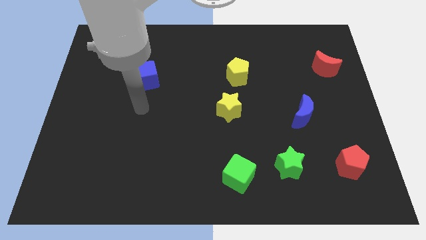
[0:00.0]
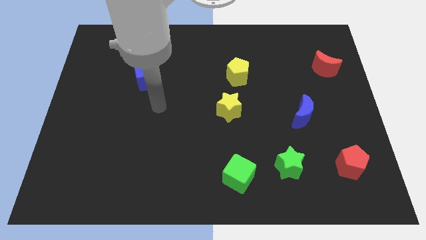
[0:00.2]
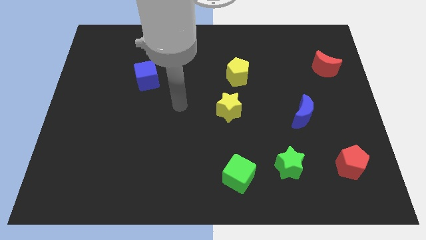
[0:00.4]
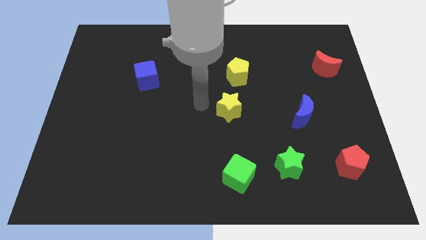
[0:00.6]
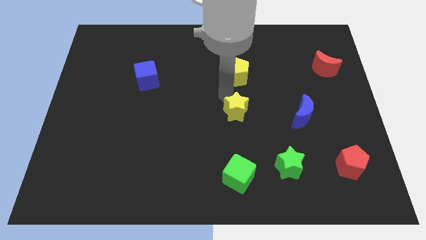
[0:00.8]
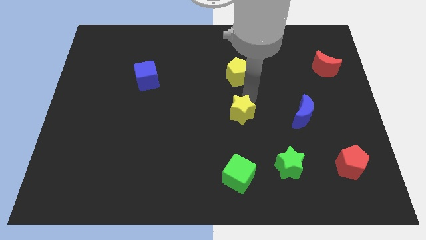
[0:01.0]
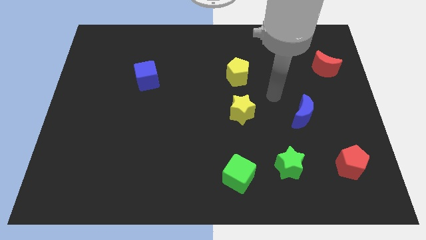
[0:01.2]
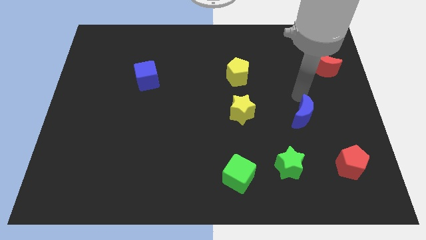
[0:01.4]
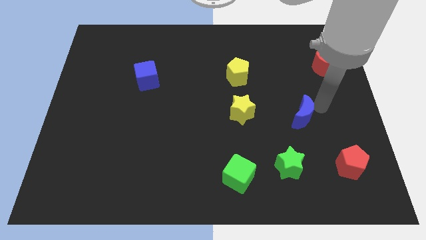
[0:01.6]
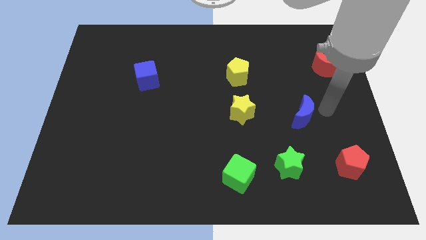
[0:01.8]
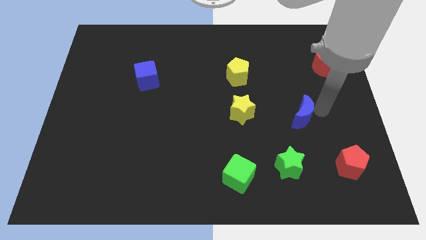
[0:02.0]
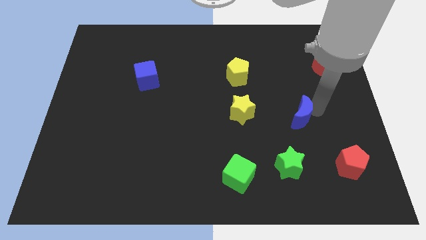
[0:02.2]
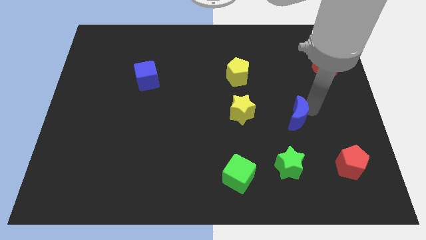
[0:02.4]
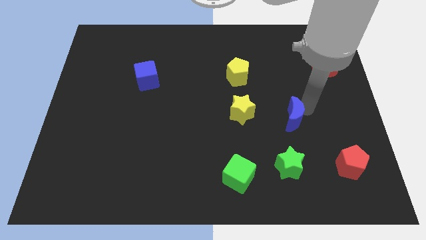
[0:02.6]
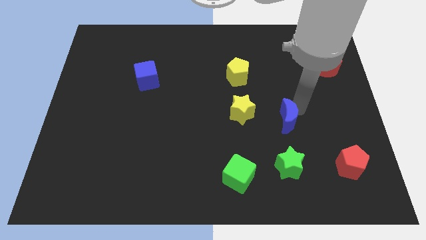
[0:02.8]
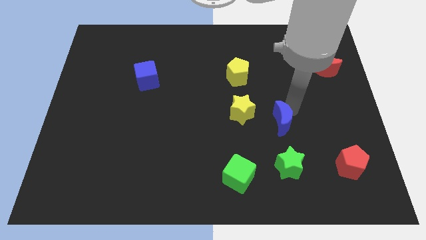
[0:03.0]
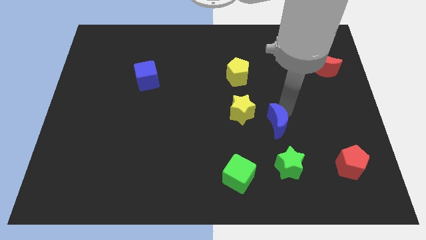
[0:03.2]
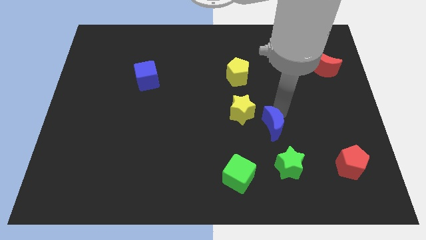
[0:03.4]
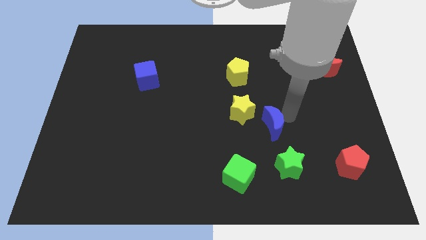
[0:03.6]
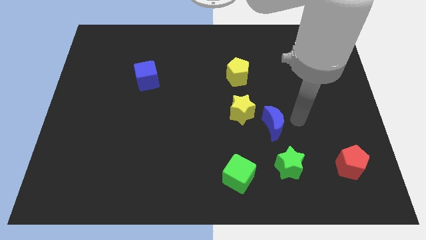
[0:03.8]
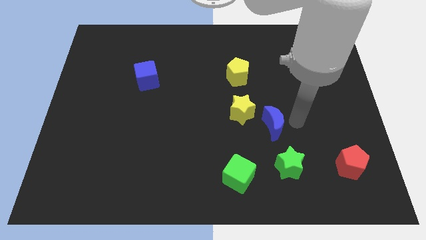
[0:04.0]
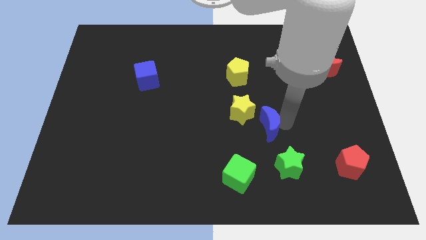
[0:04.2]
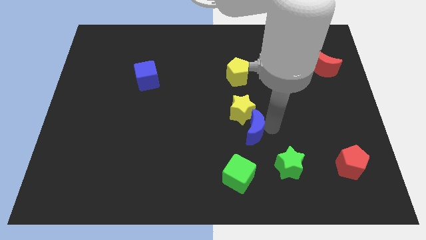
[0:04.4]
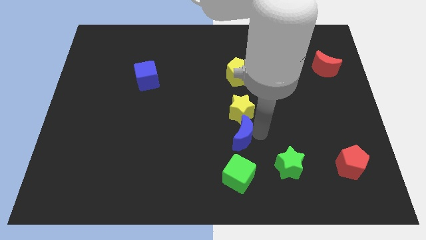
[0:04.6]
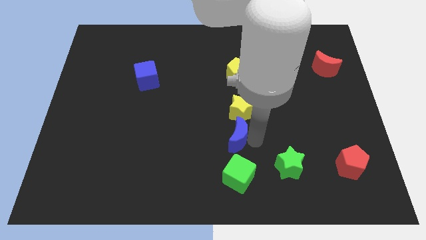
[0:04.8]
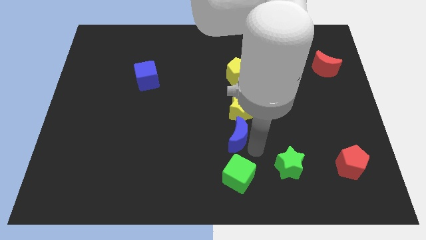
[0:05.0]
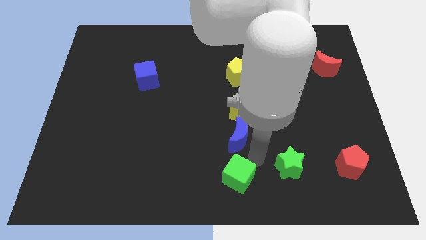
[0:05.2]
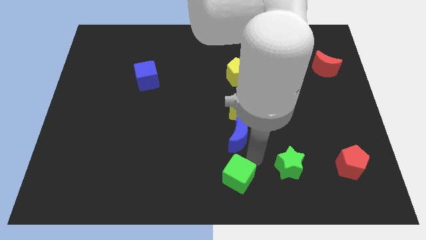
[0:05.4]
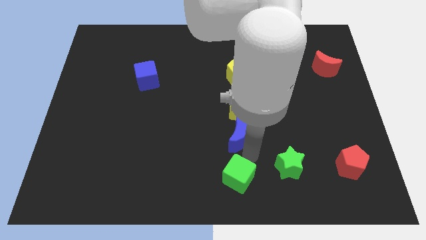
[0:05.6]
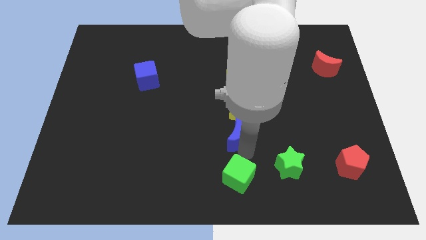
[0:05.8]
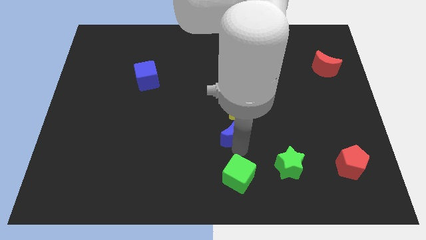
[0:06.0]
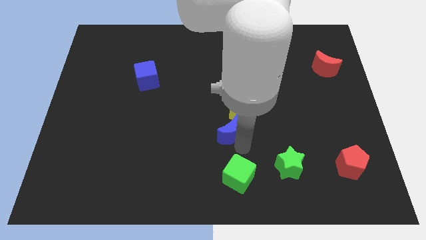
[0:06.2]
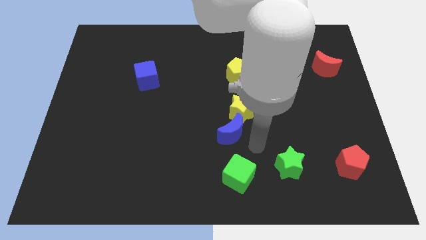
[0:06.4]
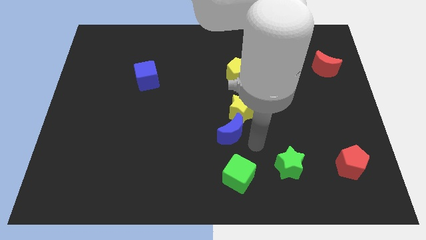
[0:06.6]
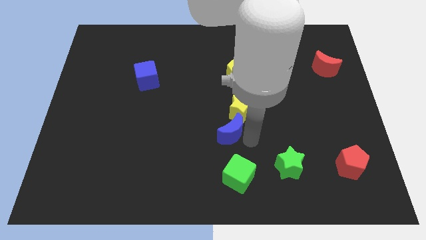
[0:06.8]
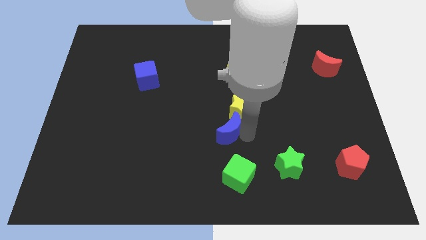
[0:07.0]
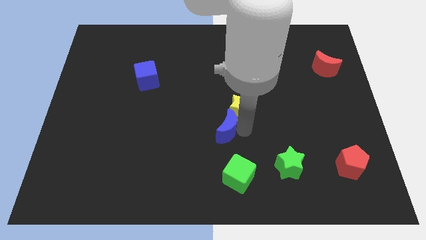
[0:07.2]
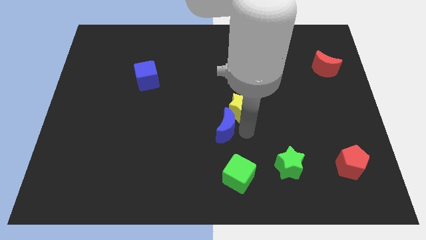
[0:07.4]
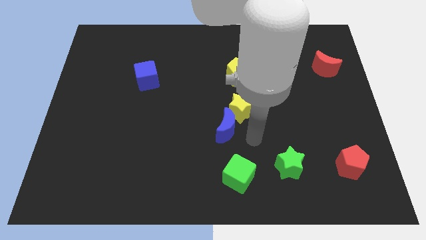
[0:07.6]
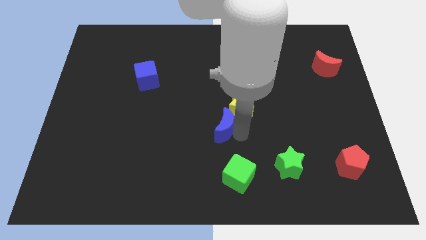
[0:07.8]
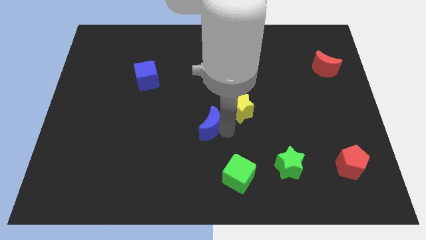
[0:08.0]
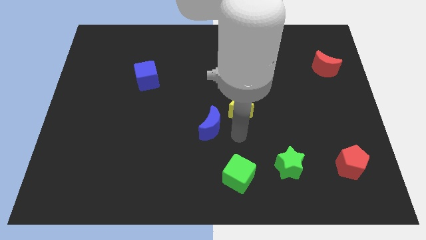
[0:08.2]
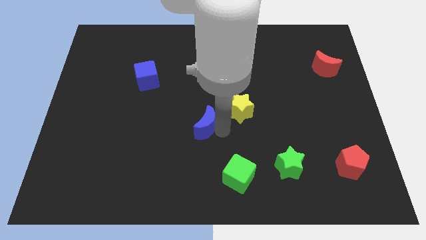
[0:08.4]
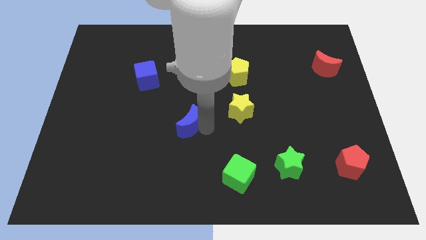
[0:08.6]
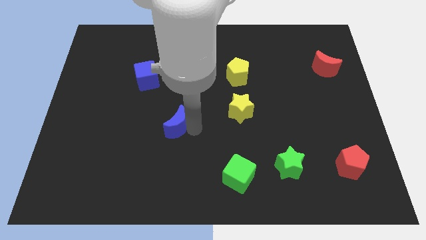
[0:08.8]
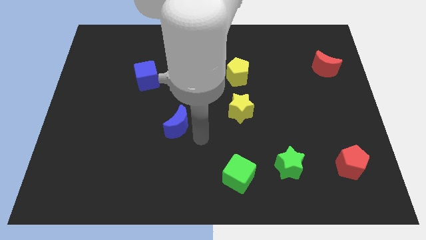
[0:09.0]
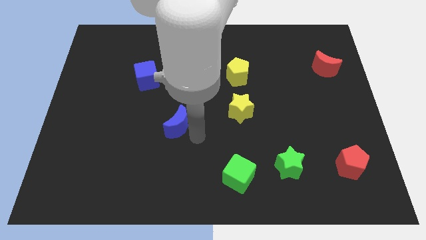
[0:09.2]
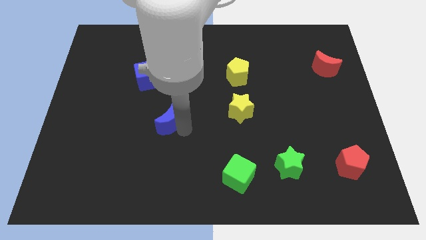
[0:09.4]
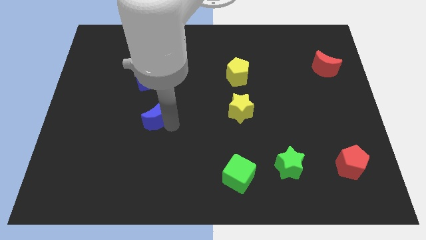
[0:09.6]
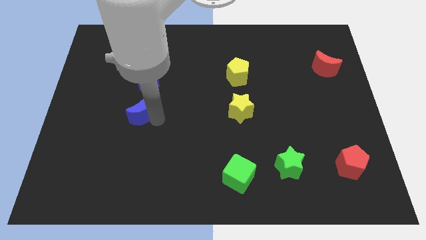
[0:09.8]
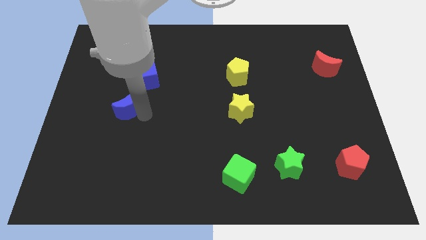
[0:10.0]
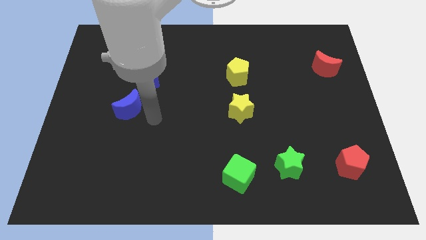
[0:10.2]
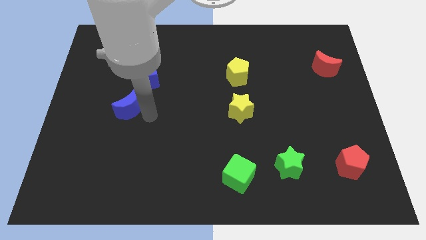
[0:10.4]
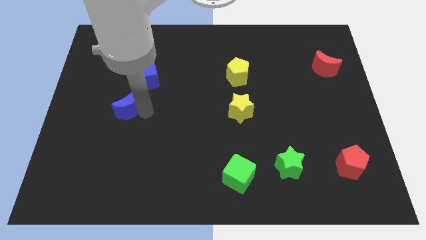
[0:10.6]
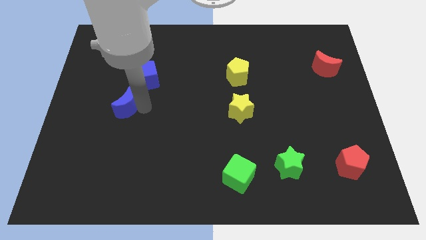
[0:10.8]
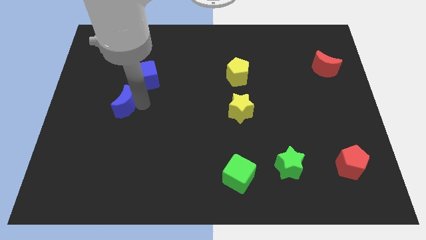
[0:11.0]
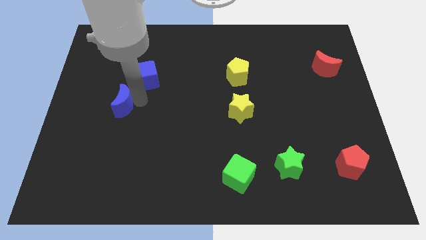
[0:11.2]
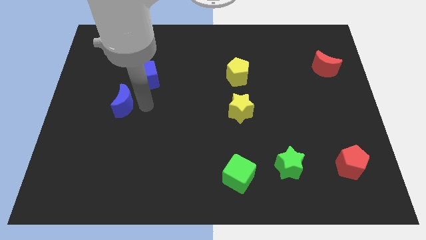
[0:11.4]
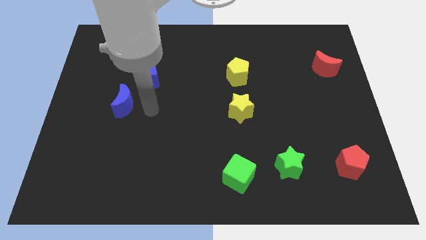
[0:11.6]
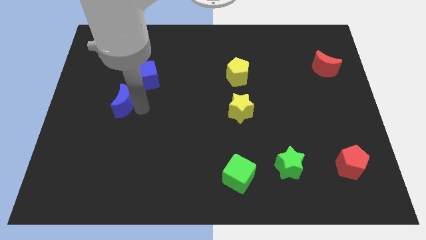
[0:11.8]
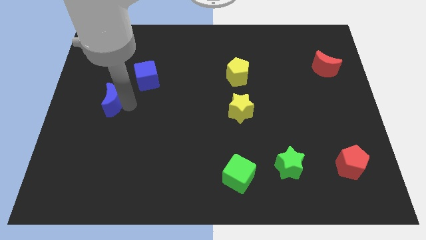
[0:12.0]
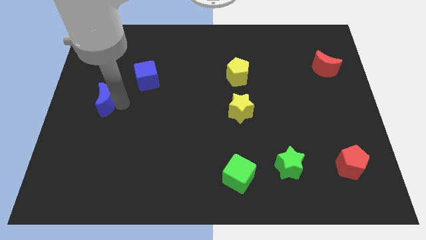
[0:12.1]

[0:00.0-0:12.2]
move the blue moon to the center left
